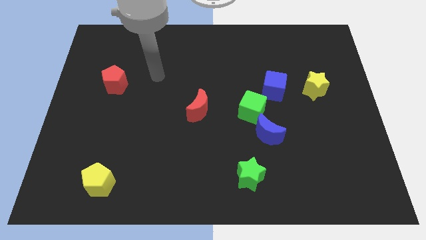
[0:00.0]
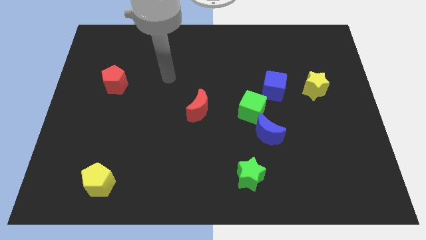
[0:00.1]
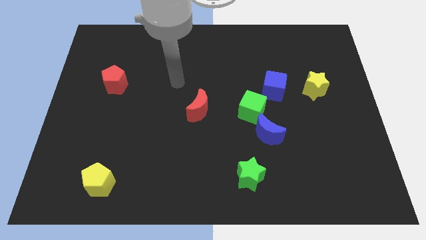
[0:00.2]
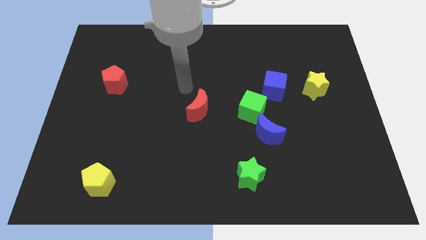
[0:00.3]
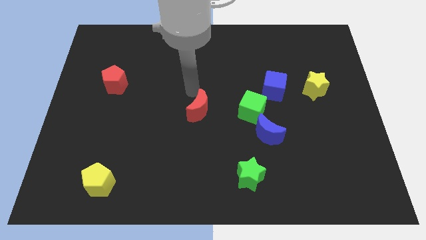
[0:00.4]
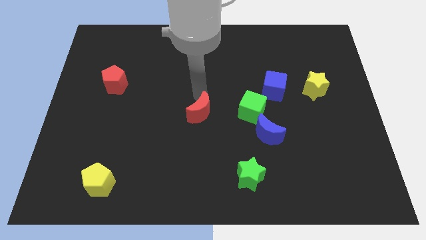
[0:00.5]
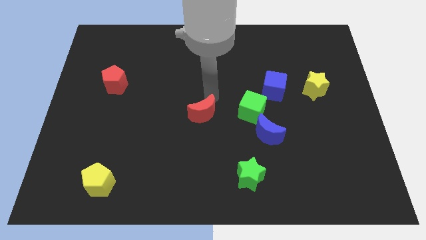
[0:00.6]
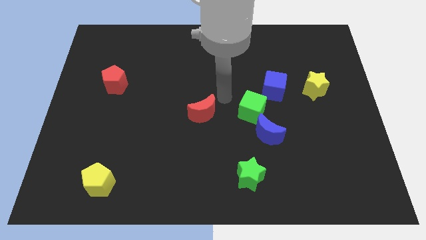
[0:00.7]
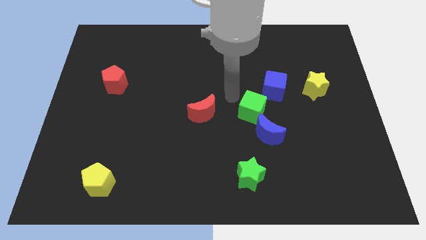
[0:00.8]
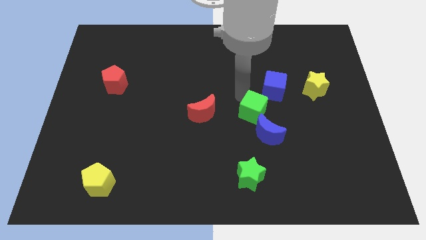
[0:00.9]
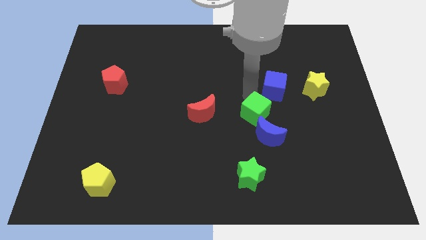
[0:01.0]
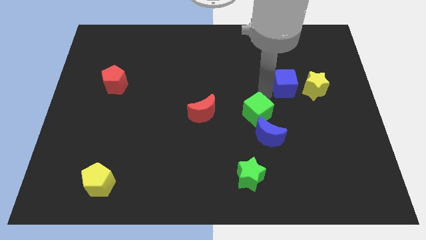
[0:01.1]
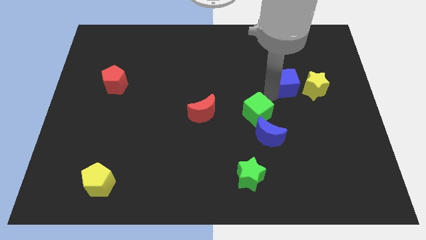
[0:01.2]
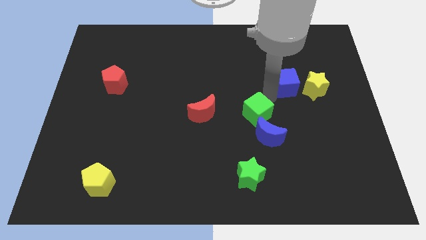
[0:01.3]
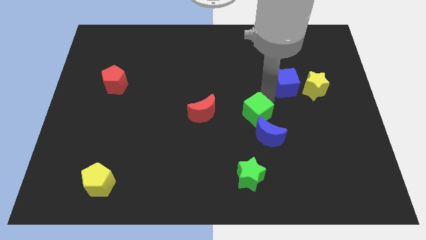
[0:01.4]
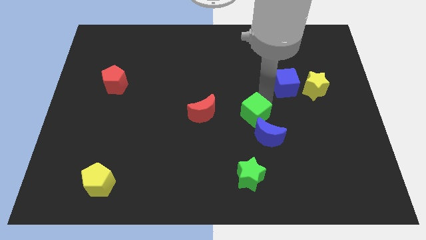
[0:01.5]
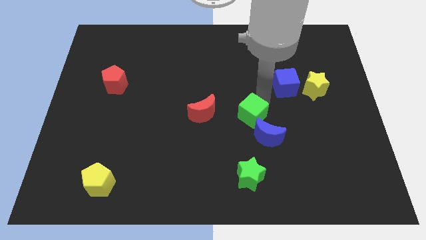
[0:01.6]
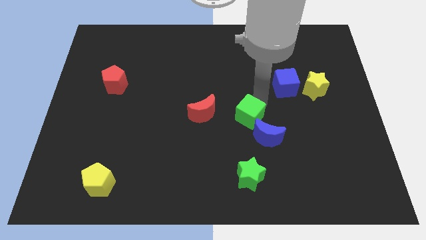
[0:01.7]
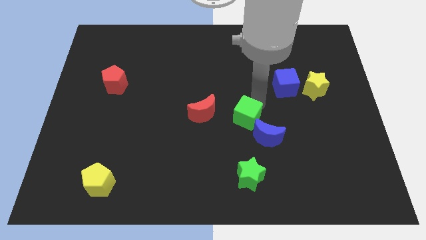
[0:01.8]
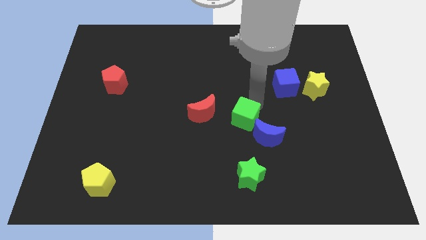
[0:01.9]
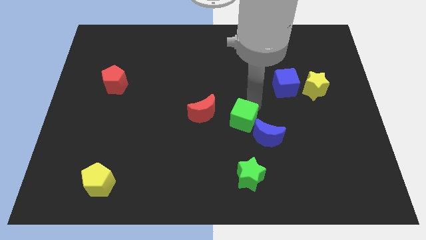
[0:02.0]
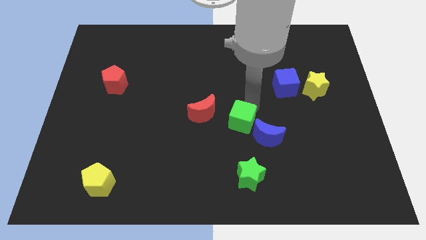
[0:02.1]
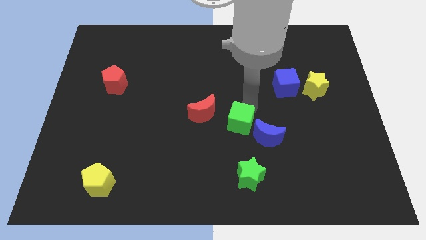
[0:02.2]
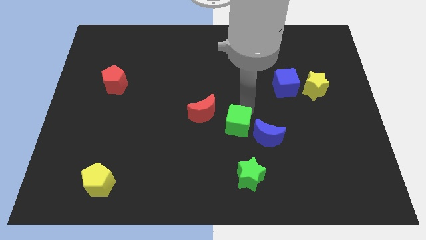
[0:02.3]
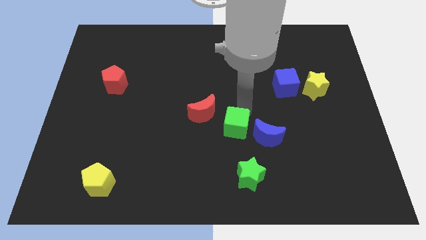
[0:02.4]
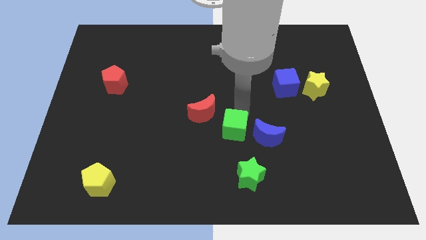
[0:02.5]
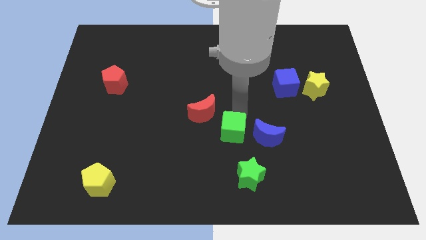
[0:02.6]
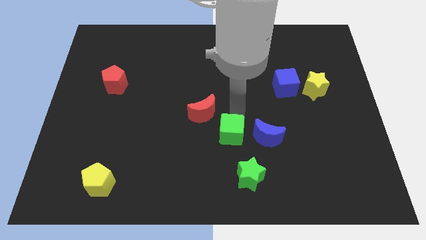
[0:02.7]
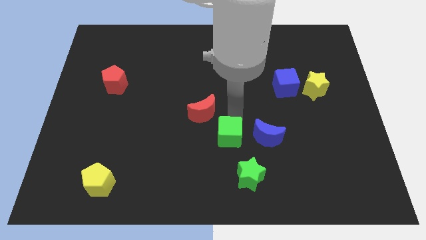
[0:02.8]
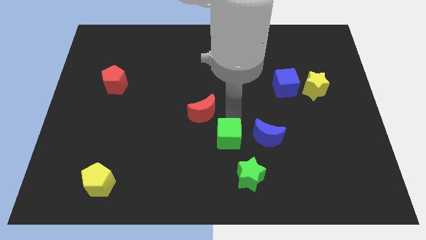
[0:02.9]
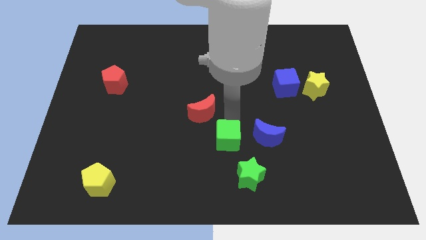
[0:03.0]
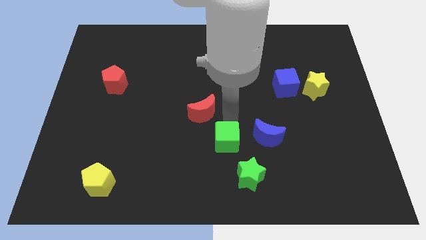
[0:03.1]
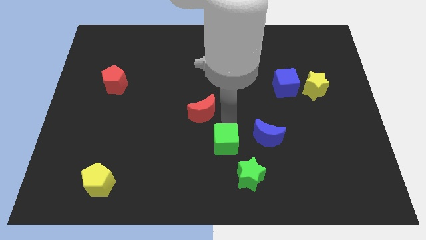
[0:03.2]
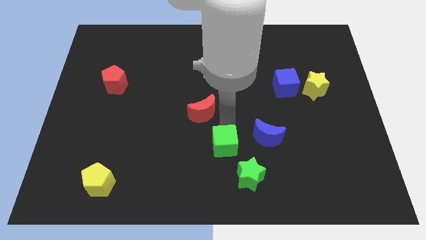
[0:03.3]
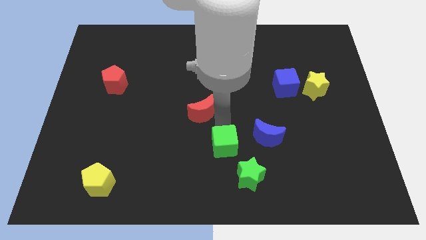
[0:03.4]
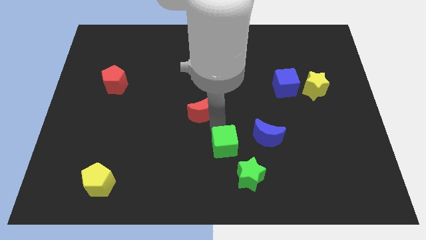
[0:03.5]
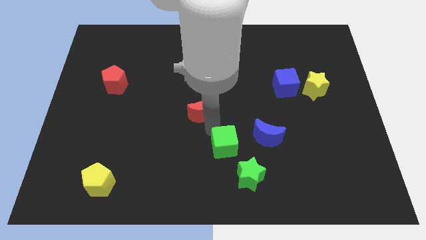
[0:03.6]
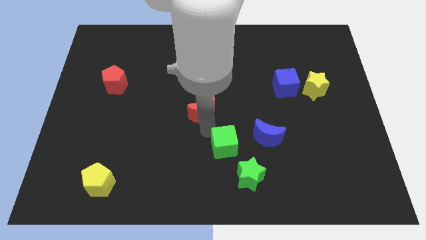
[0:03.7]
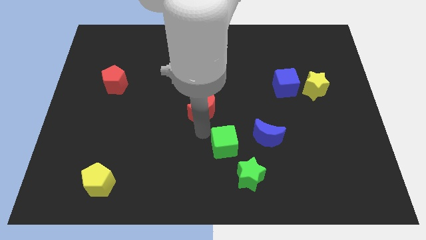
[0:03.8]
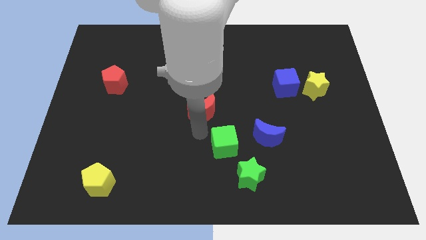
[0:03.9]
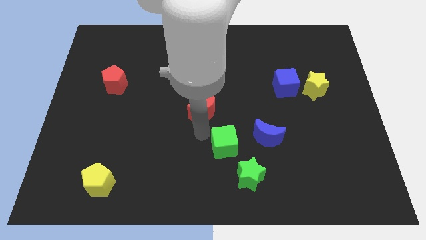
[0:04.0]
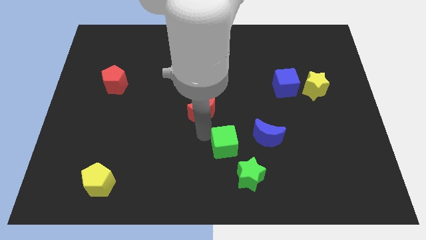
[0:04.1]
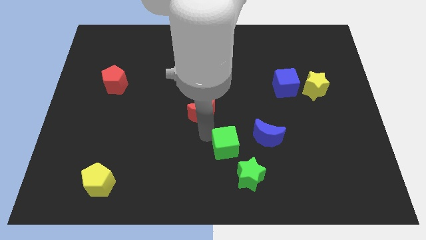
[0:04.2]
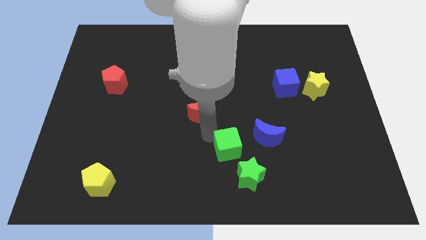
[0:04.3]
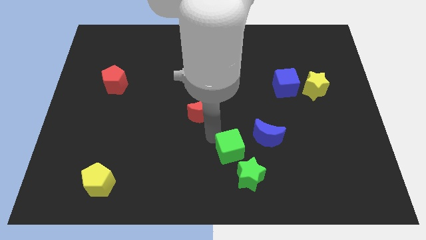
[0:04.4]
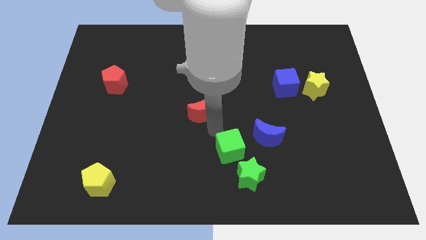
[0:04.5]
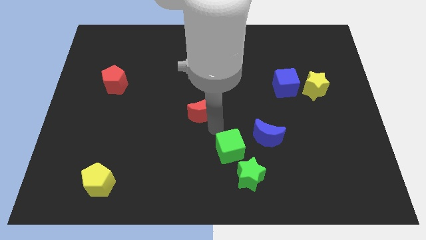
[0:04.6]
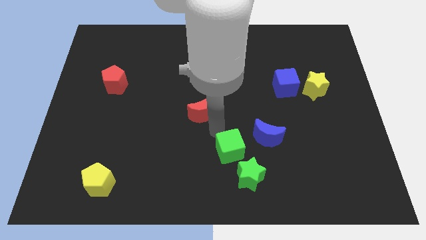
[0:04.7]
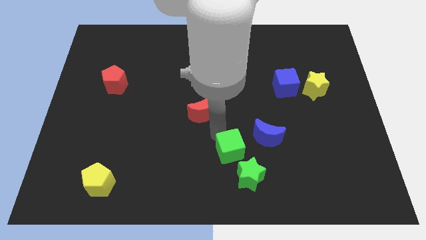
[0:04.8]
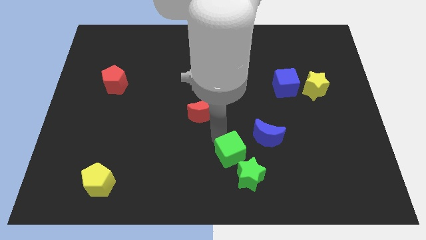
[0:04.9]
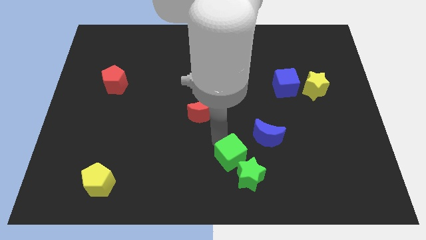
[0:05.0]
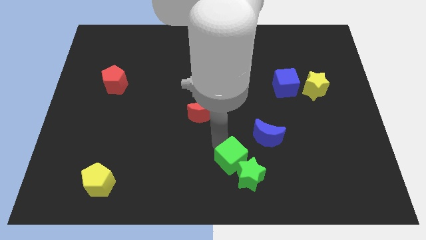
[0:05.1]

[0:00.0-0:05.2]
put the green cube close to the green star

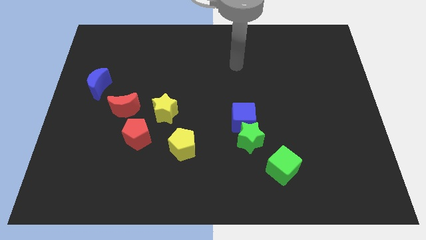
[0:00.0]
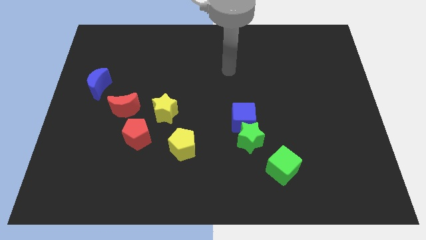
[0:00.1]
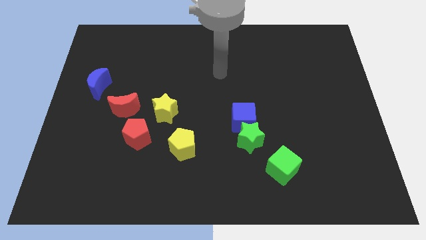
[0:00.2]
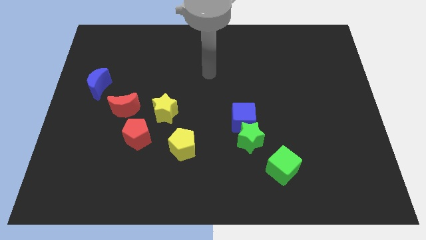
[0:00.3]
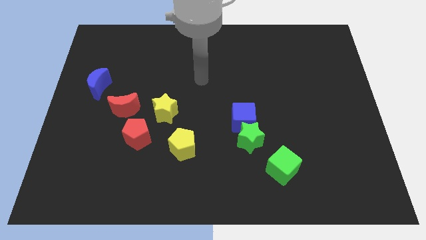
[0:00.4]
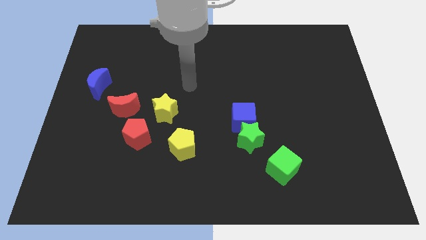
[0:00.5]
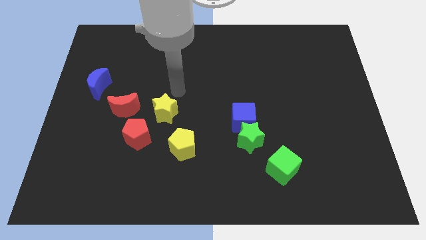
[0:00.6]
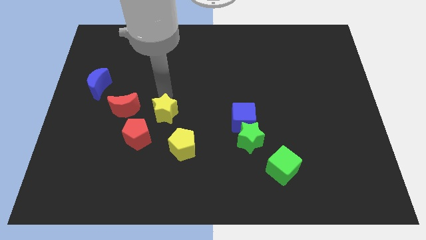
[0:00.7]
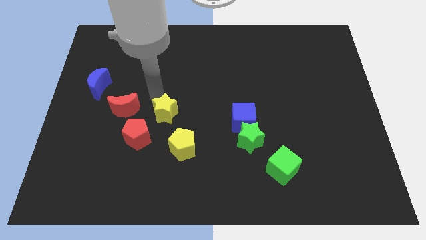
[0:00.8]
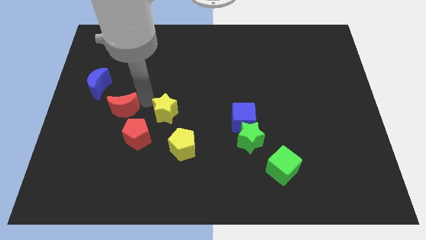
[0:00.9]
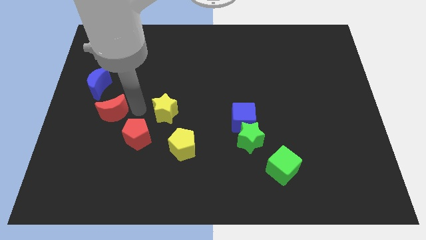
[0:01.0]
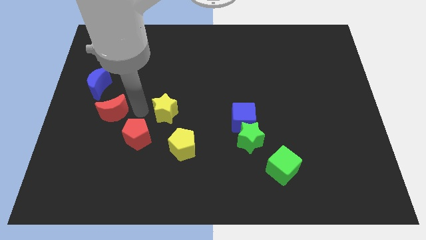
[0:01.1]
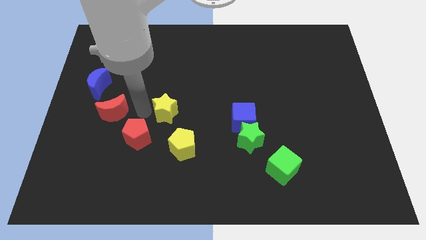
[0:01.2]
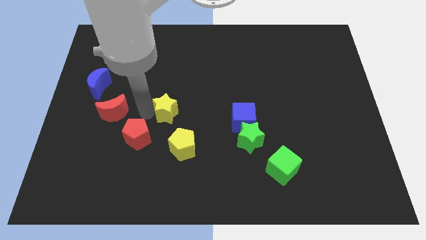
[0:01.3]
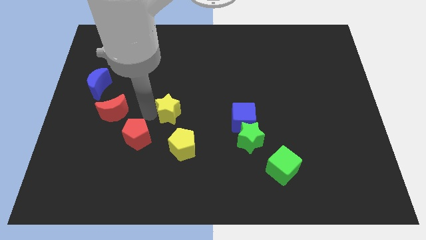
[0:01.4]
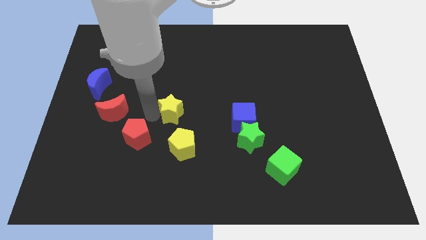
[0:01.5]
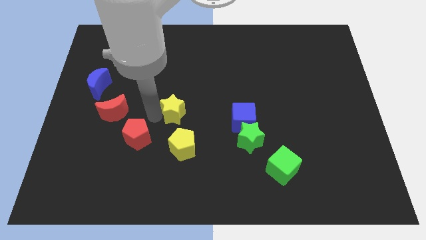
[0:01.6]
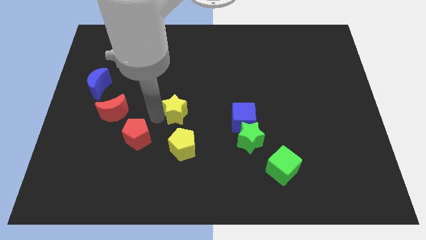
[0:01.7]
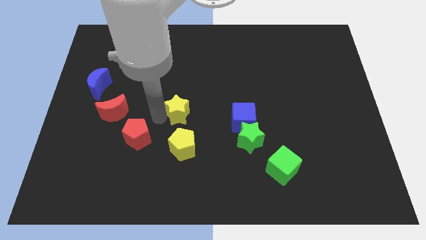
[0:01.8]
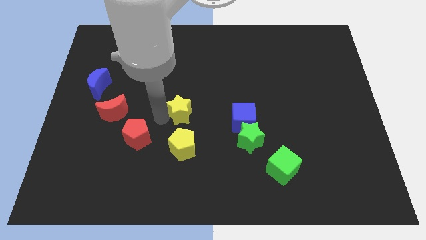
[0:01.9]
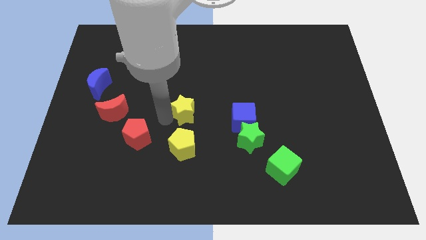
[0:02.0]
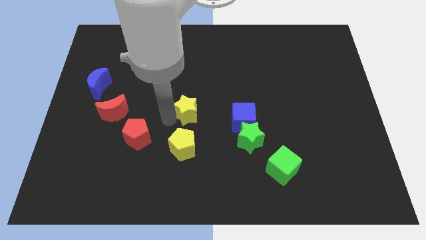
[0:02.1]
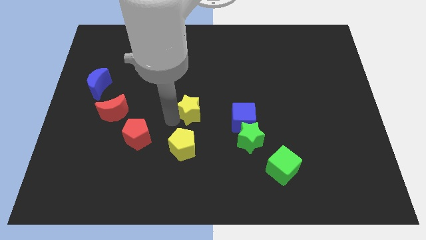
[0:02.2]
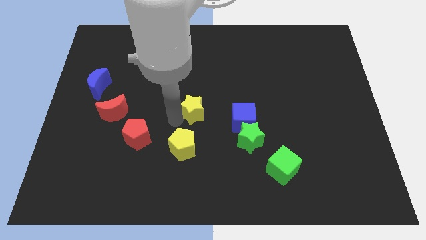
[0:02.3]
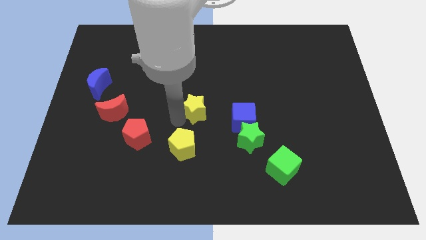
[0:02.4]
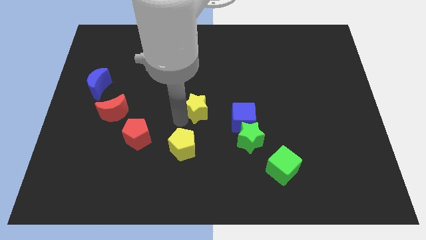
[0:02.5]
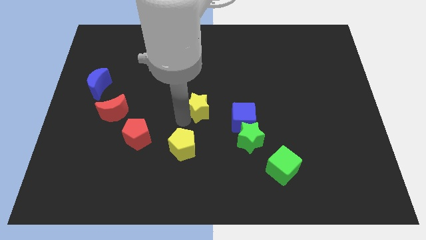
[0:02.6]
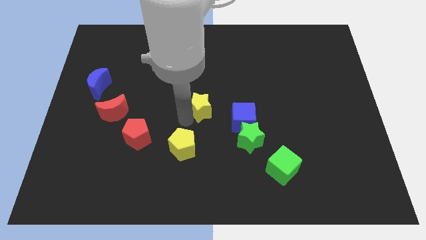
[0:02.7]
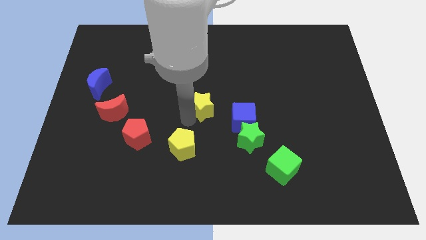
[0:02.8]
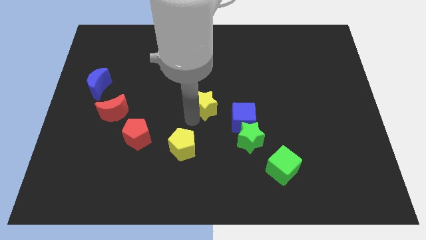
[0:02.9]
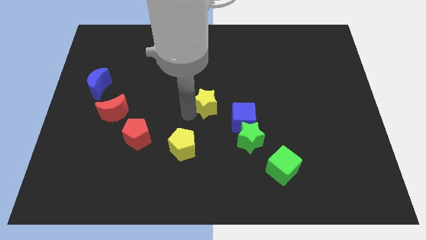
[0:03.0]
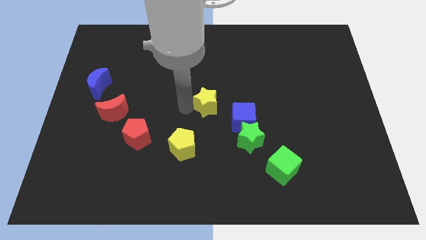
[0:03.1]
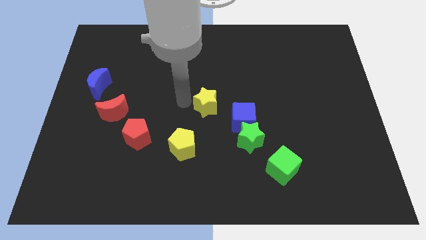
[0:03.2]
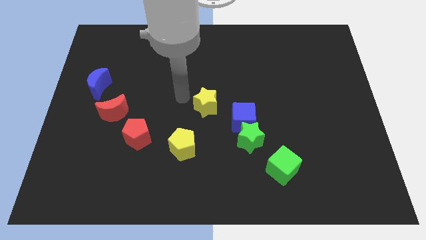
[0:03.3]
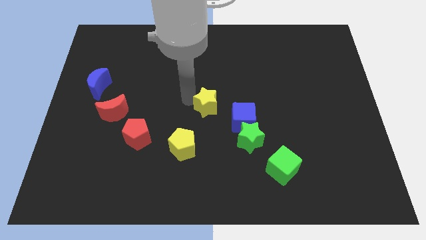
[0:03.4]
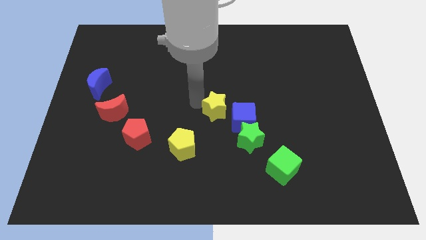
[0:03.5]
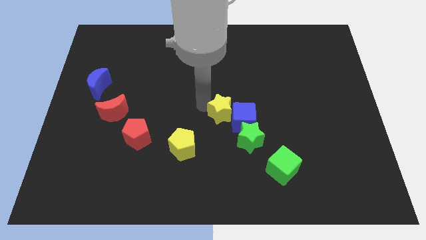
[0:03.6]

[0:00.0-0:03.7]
move the yellow star towards the blue cube
